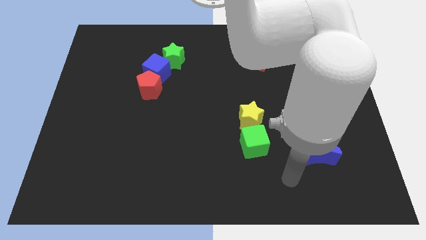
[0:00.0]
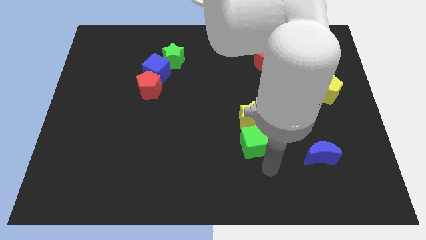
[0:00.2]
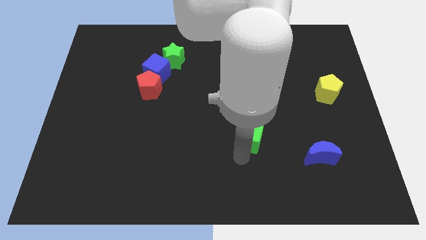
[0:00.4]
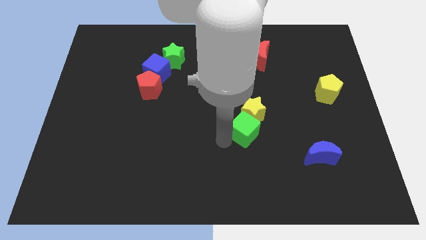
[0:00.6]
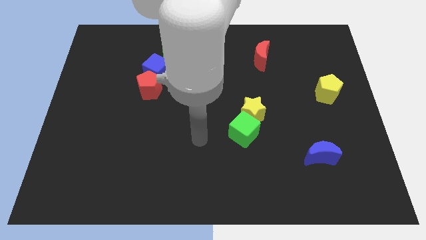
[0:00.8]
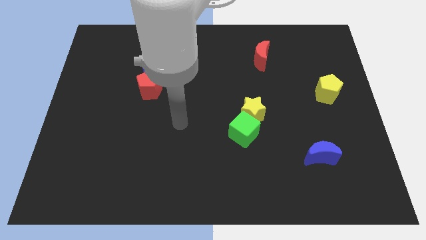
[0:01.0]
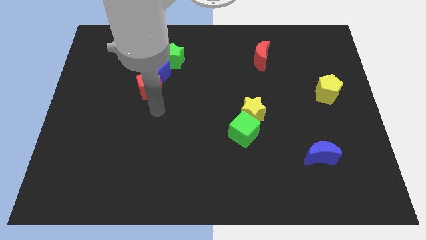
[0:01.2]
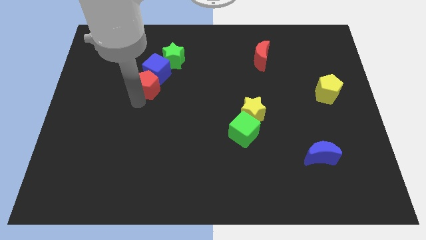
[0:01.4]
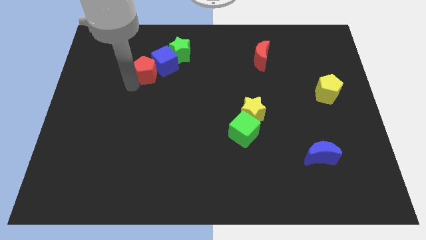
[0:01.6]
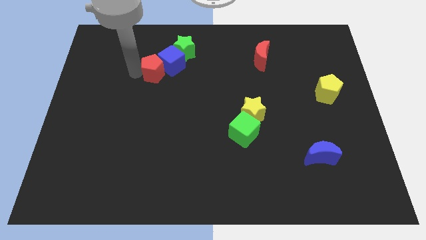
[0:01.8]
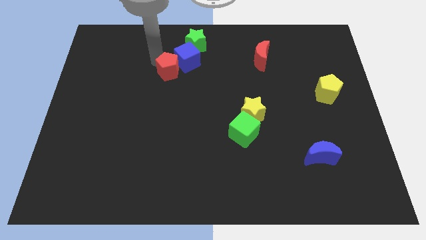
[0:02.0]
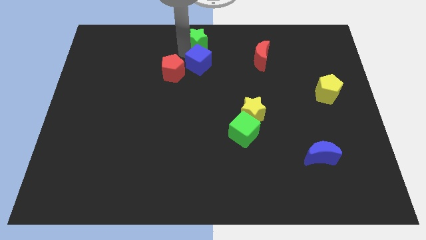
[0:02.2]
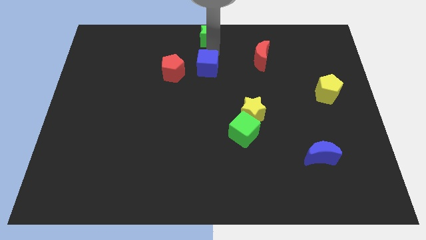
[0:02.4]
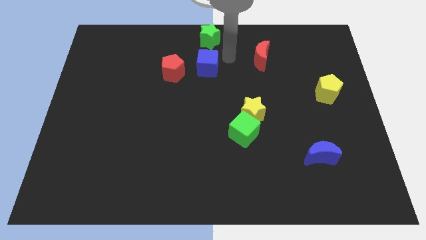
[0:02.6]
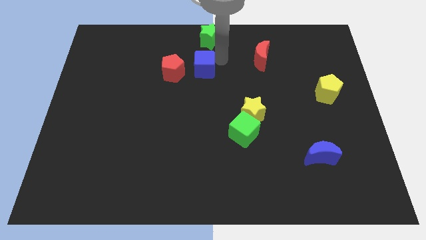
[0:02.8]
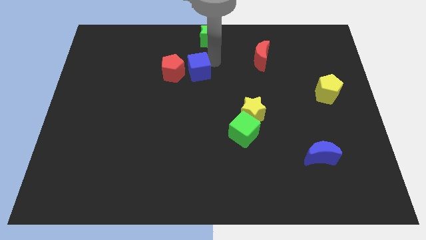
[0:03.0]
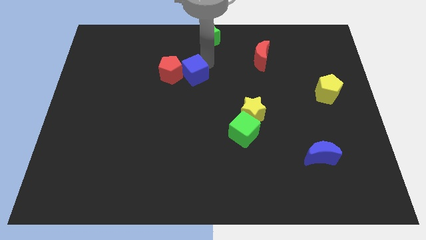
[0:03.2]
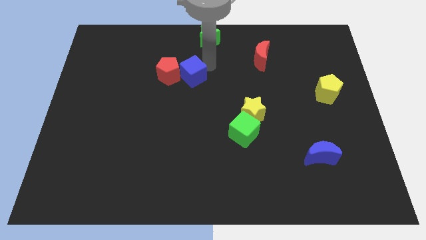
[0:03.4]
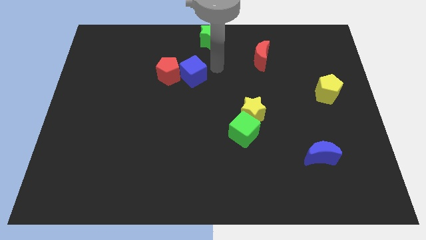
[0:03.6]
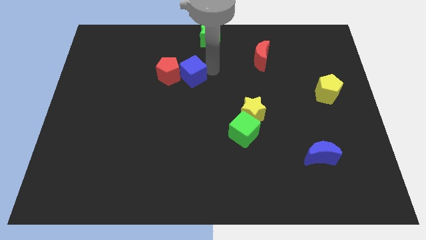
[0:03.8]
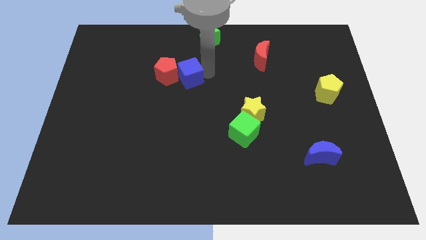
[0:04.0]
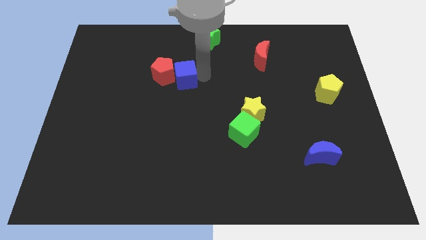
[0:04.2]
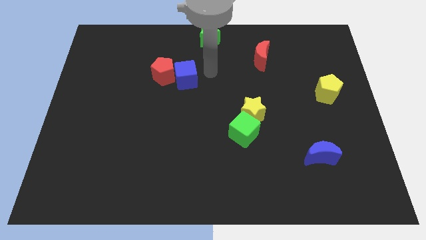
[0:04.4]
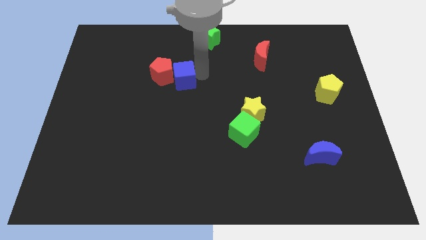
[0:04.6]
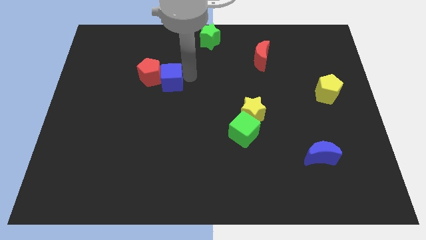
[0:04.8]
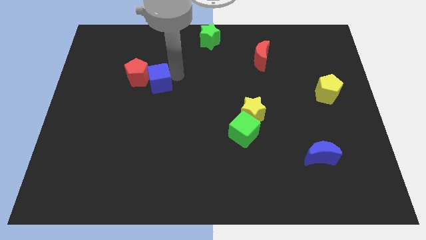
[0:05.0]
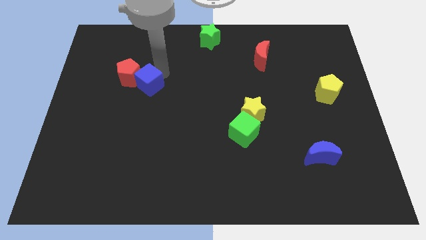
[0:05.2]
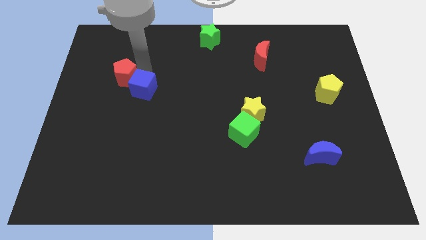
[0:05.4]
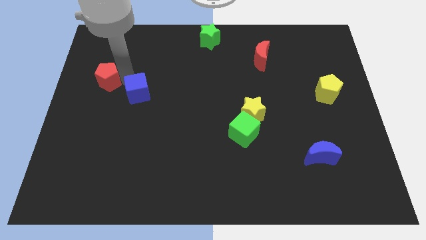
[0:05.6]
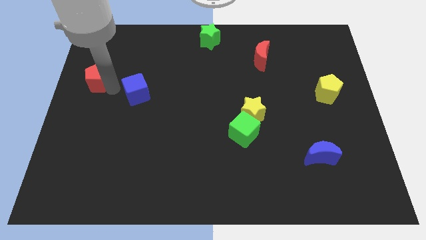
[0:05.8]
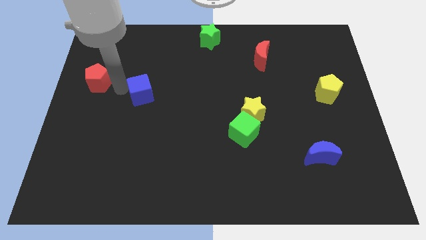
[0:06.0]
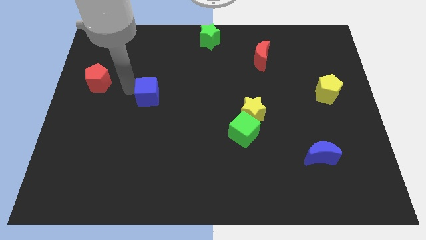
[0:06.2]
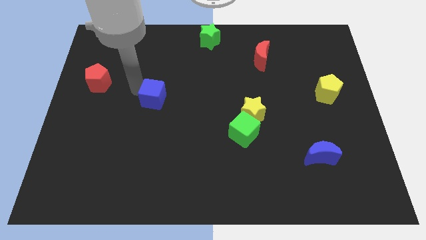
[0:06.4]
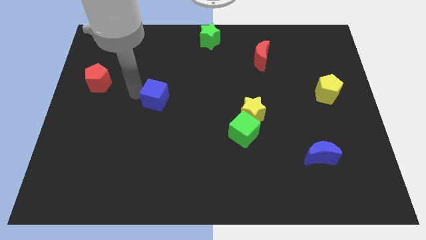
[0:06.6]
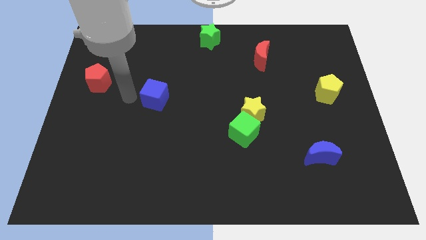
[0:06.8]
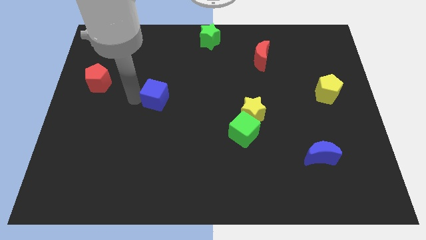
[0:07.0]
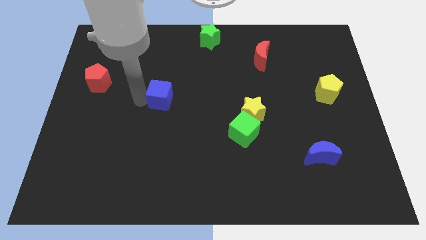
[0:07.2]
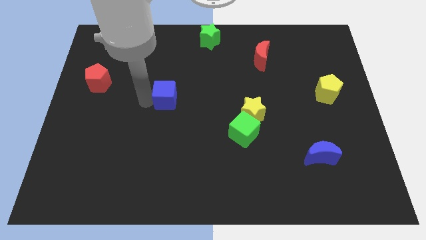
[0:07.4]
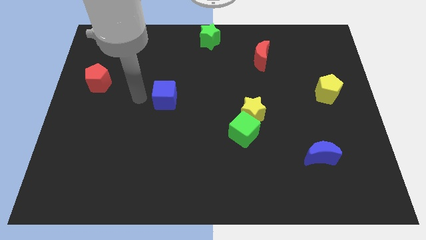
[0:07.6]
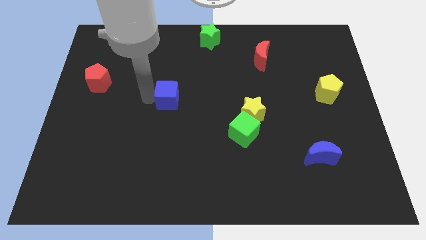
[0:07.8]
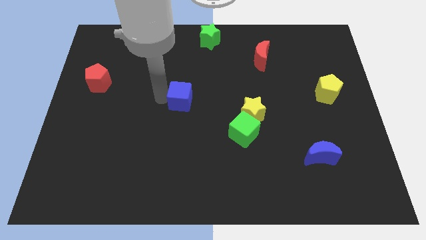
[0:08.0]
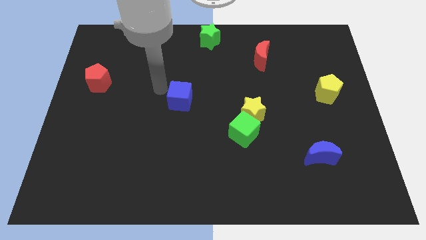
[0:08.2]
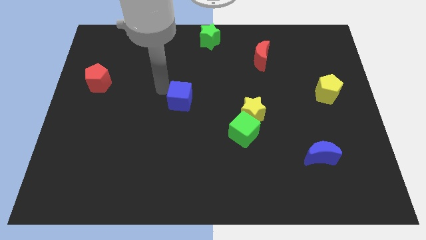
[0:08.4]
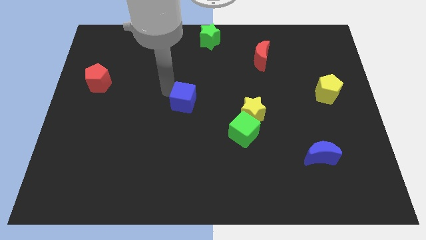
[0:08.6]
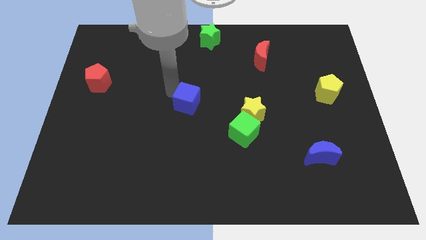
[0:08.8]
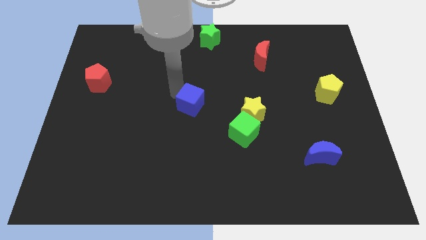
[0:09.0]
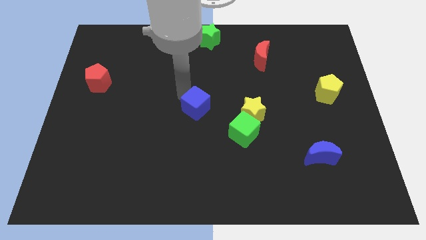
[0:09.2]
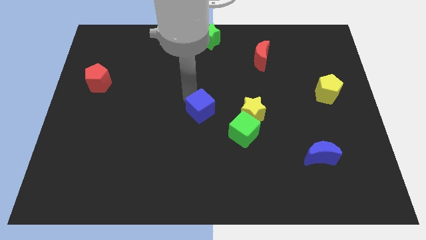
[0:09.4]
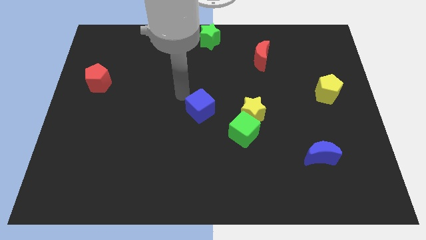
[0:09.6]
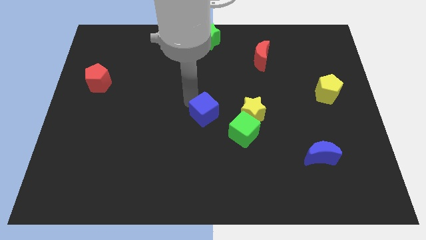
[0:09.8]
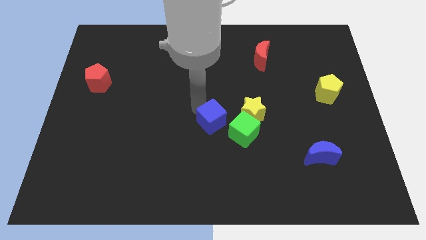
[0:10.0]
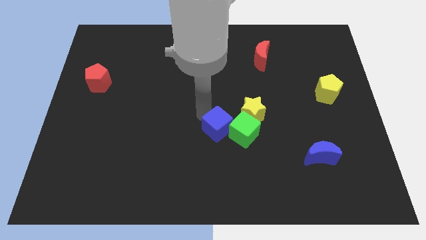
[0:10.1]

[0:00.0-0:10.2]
put the blue cube close to the green cube

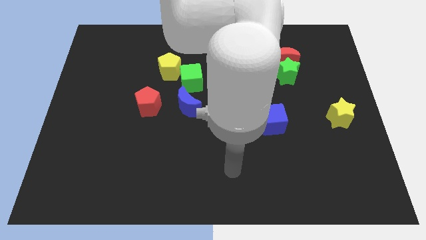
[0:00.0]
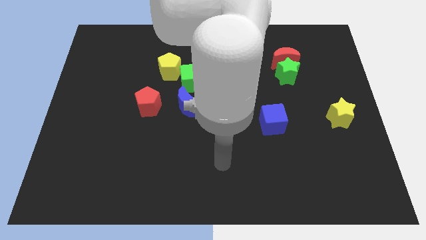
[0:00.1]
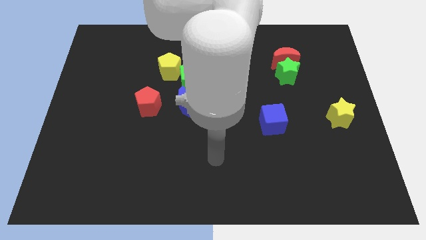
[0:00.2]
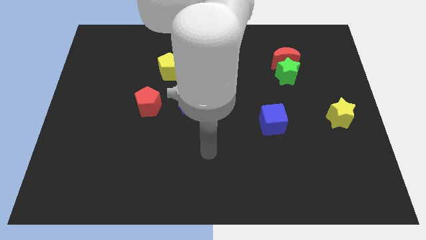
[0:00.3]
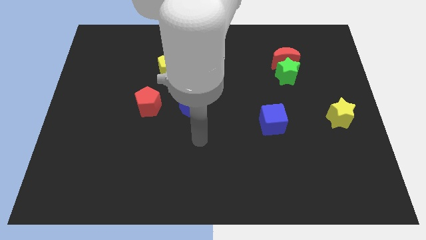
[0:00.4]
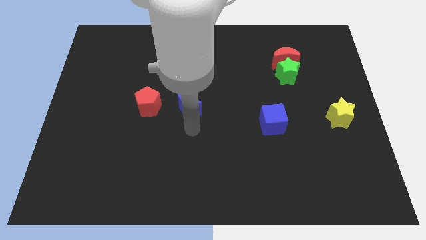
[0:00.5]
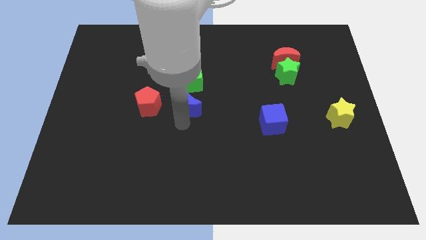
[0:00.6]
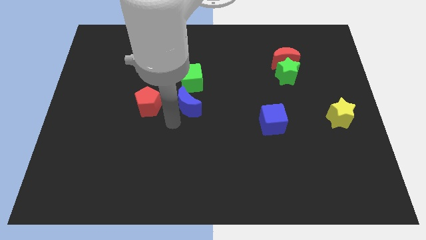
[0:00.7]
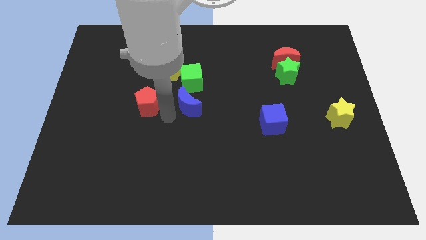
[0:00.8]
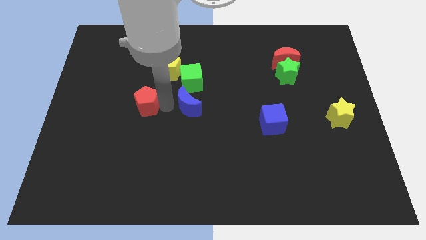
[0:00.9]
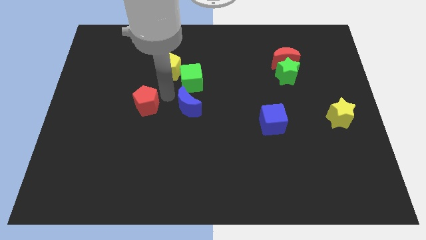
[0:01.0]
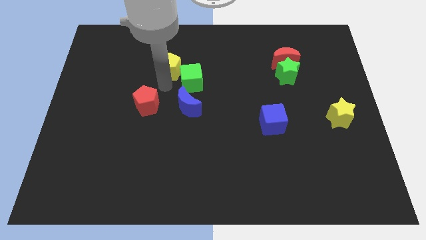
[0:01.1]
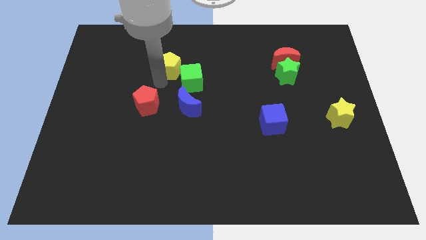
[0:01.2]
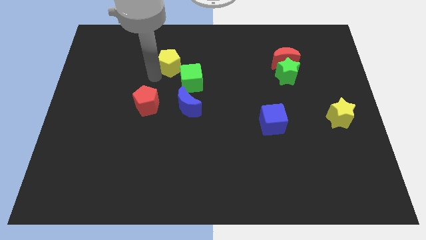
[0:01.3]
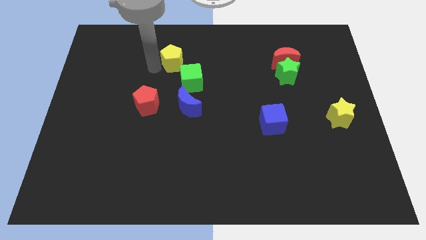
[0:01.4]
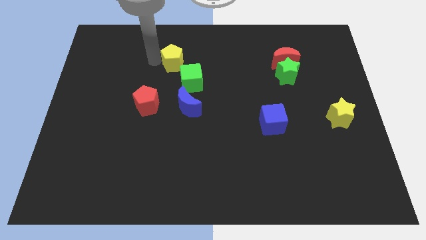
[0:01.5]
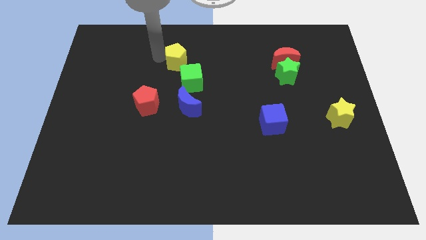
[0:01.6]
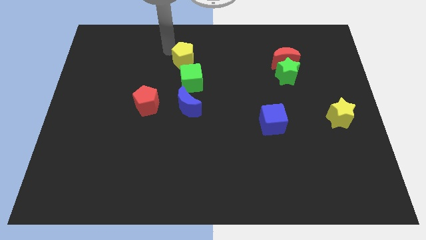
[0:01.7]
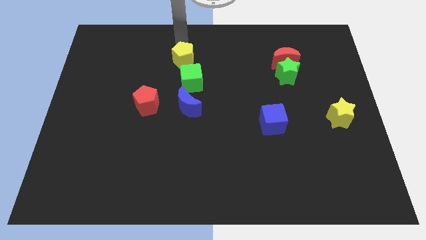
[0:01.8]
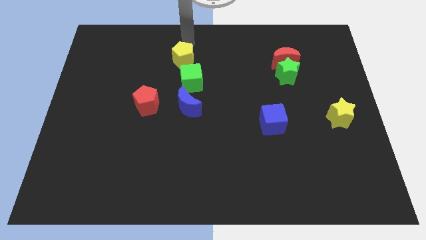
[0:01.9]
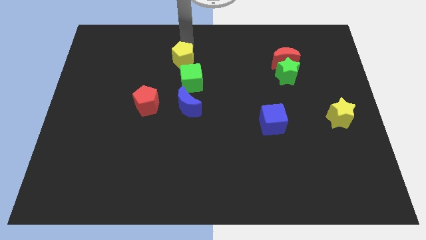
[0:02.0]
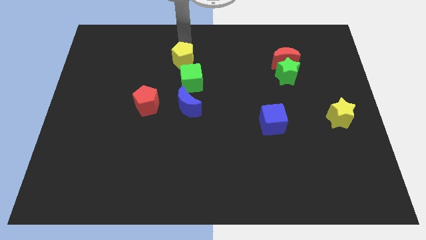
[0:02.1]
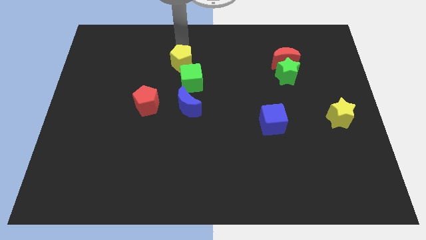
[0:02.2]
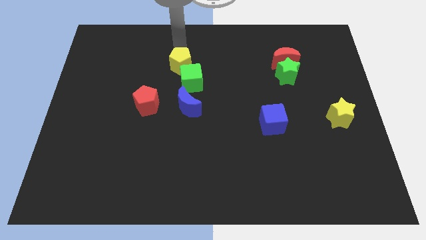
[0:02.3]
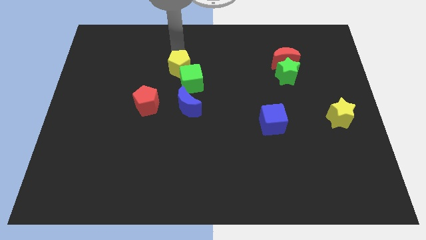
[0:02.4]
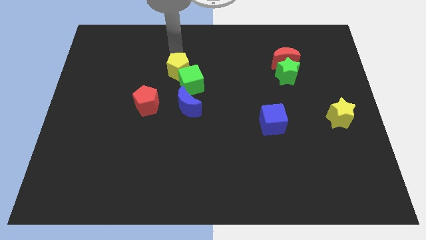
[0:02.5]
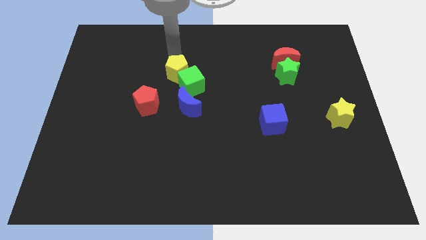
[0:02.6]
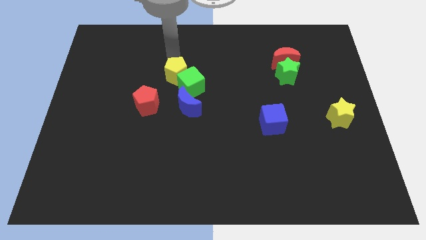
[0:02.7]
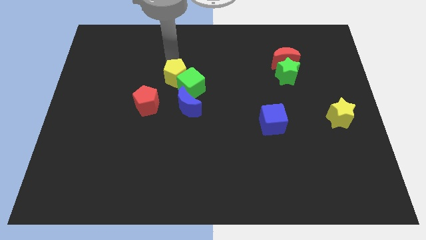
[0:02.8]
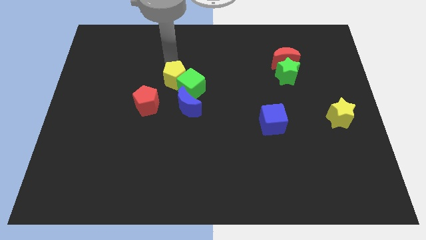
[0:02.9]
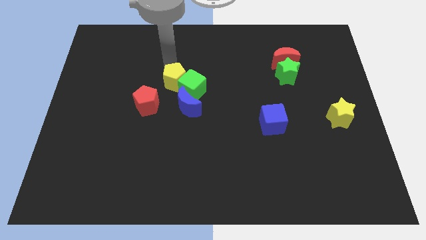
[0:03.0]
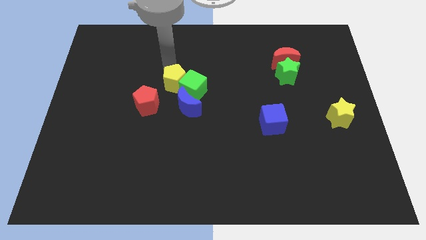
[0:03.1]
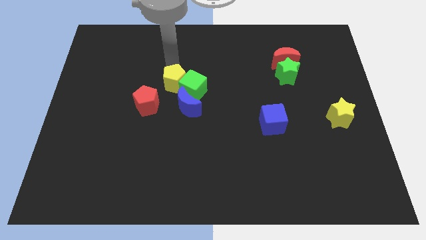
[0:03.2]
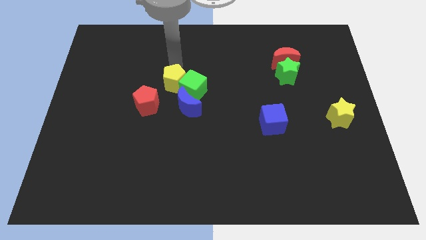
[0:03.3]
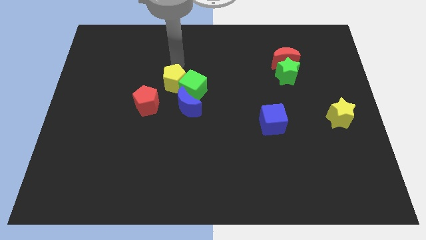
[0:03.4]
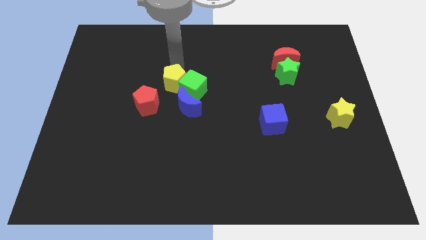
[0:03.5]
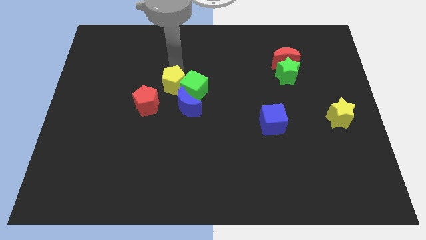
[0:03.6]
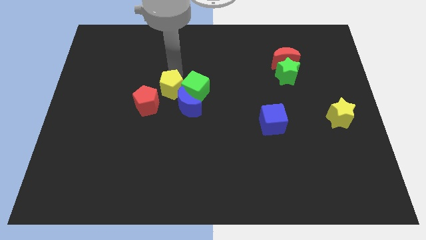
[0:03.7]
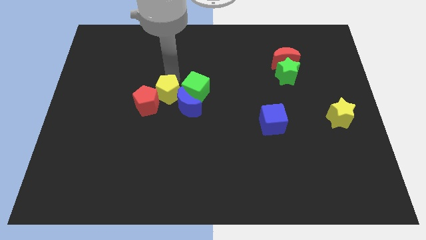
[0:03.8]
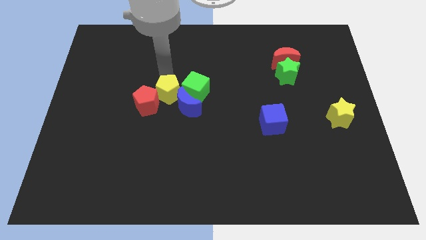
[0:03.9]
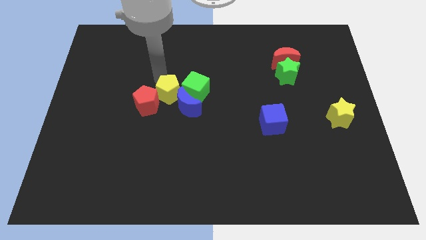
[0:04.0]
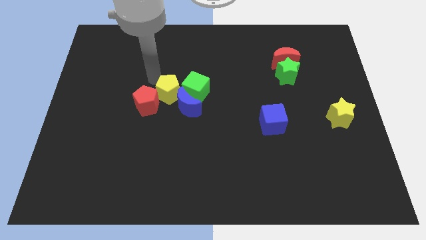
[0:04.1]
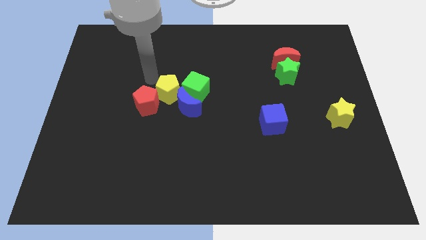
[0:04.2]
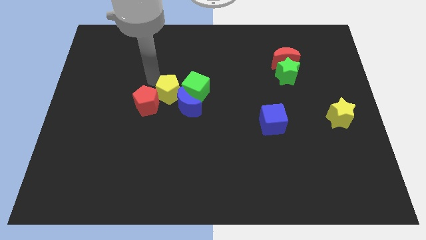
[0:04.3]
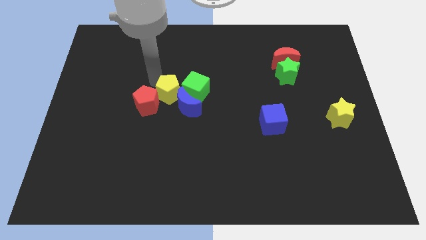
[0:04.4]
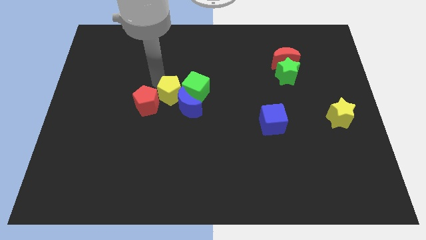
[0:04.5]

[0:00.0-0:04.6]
slide the yellow pentagon to the blue moon
